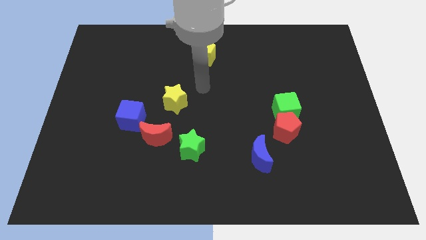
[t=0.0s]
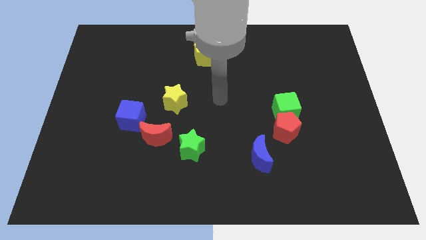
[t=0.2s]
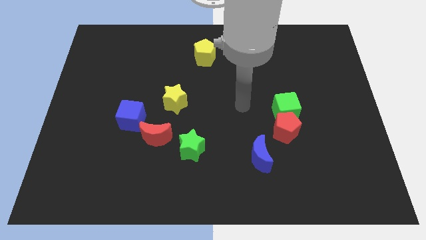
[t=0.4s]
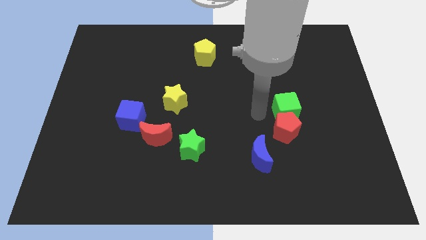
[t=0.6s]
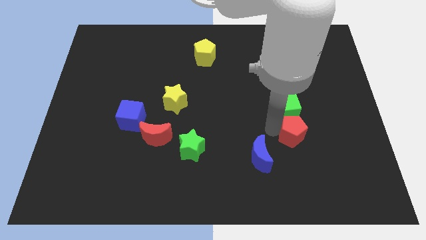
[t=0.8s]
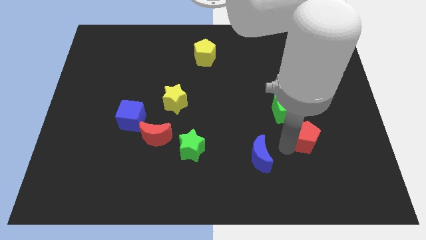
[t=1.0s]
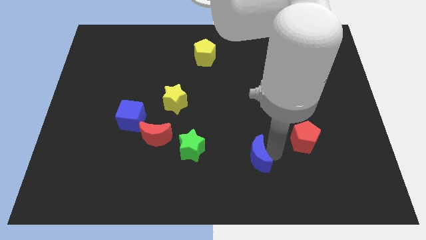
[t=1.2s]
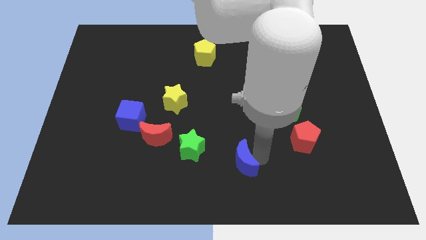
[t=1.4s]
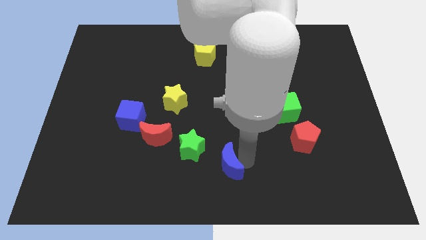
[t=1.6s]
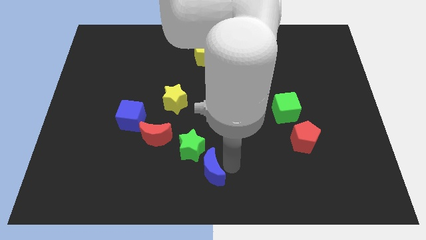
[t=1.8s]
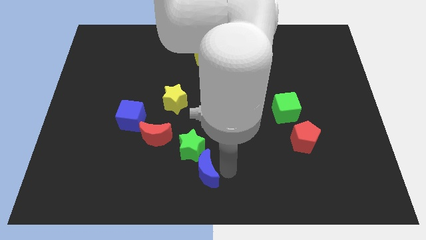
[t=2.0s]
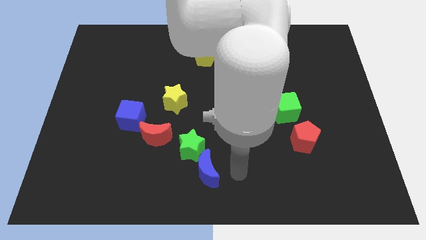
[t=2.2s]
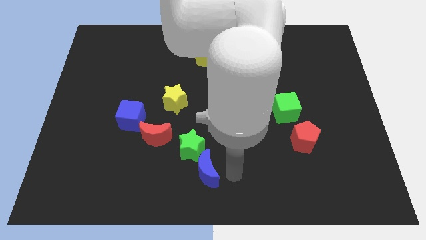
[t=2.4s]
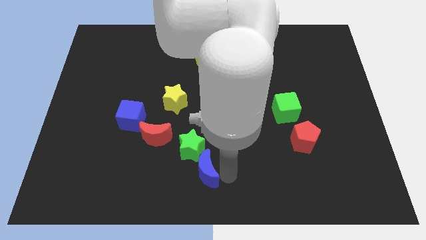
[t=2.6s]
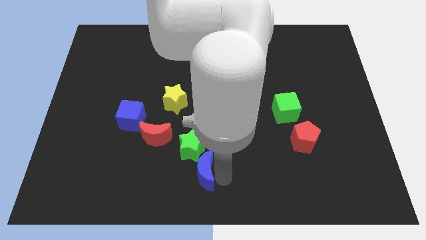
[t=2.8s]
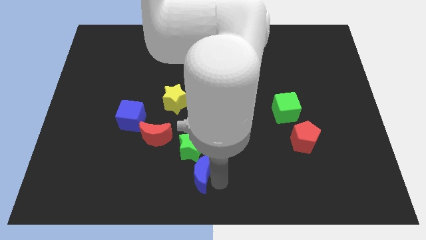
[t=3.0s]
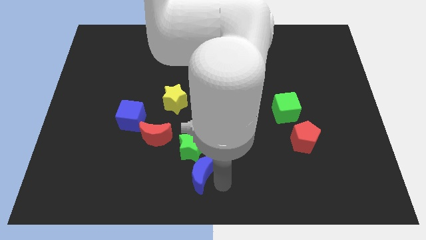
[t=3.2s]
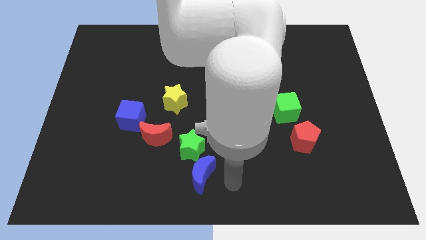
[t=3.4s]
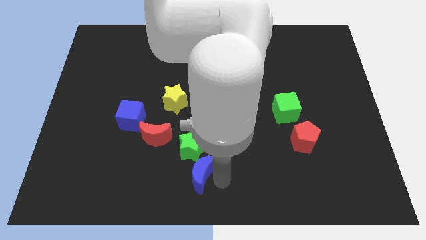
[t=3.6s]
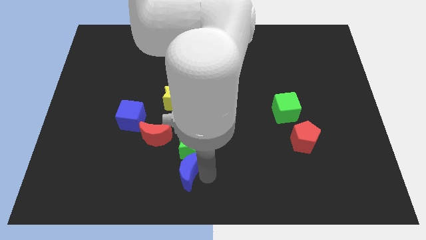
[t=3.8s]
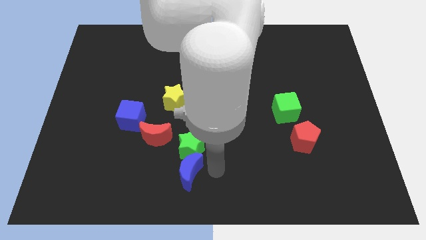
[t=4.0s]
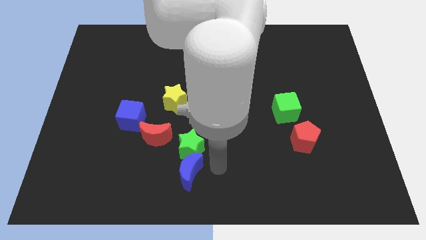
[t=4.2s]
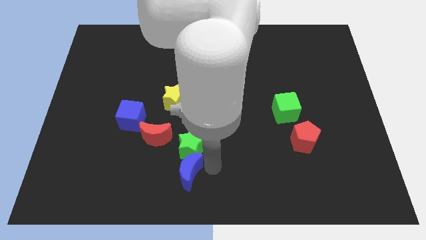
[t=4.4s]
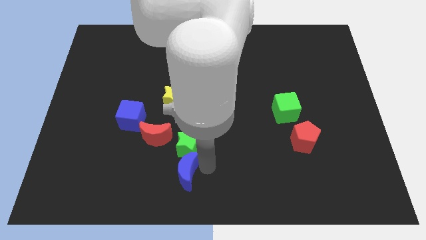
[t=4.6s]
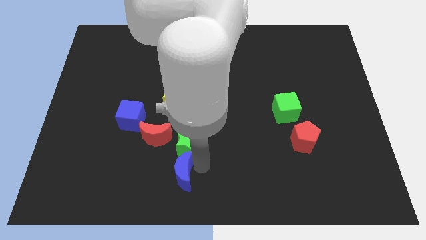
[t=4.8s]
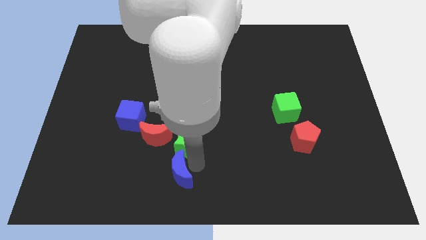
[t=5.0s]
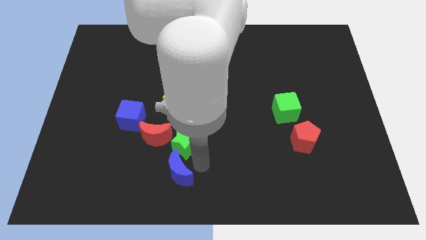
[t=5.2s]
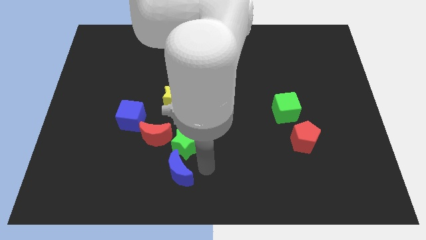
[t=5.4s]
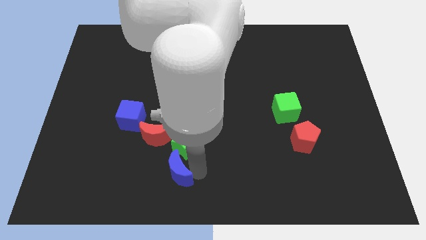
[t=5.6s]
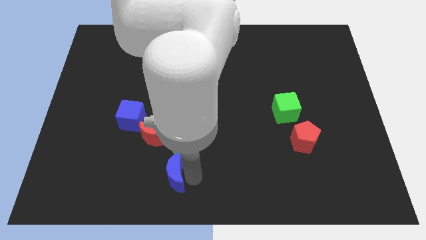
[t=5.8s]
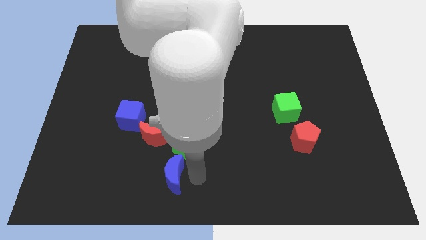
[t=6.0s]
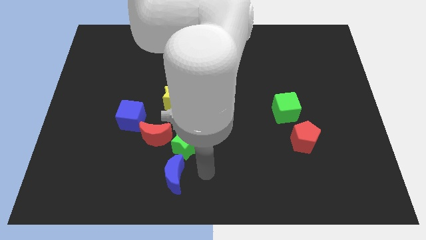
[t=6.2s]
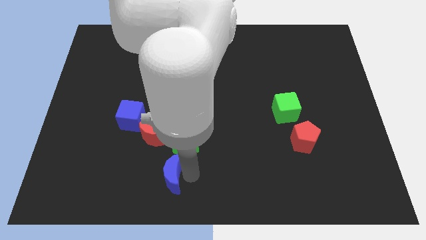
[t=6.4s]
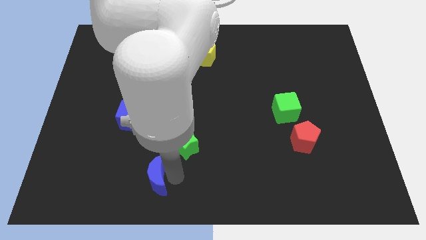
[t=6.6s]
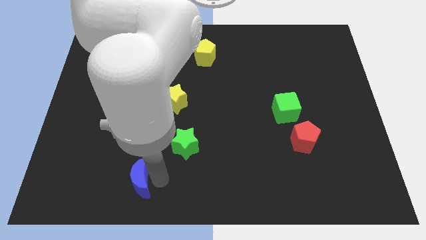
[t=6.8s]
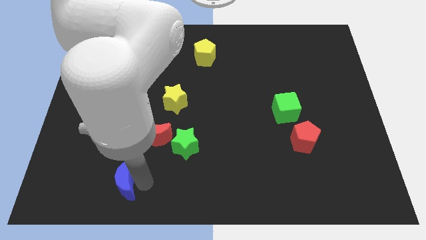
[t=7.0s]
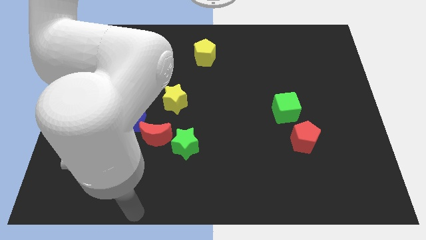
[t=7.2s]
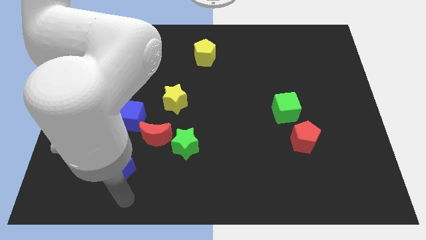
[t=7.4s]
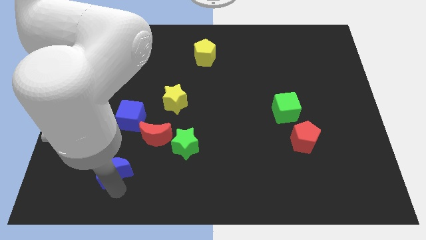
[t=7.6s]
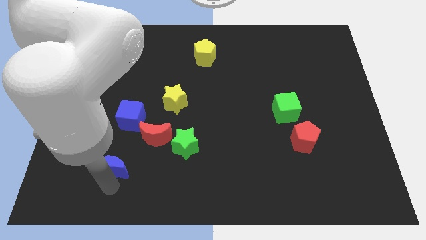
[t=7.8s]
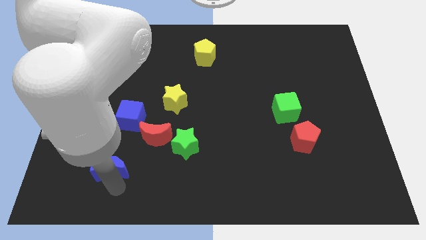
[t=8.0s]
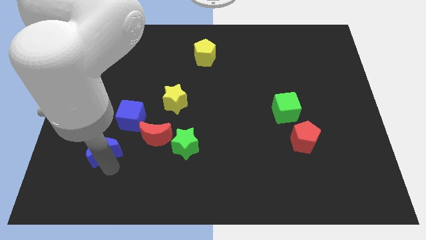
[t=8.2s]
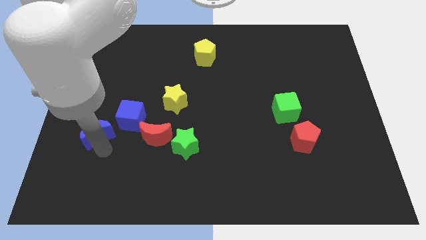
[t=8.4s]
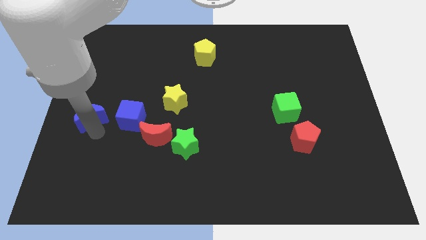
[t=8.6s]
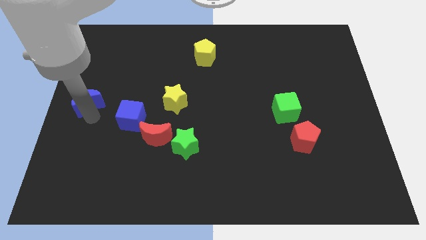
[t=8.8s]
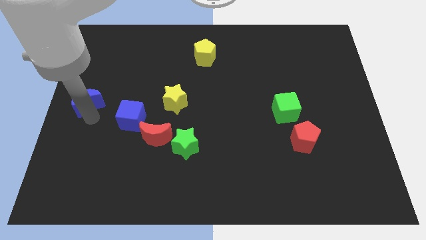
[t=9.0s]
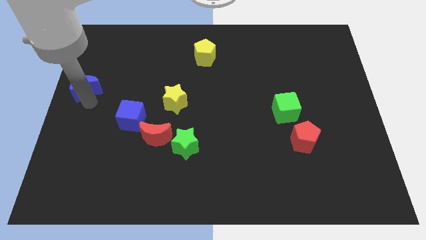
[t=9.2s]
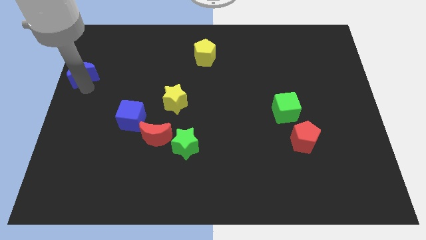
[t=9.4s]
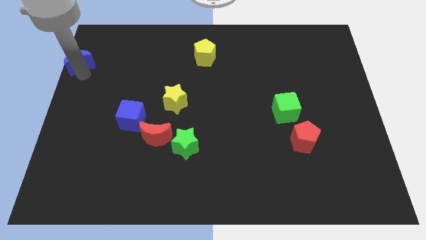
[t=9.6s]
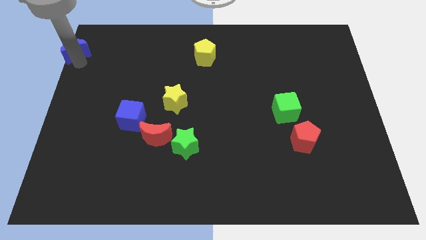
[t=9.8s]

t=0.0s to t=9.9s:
slide the blue moon to the top left of the board

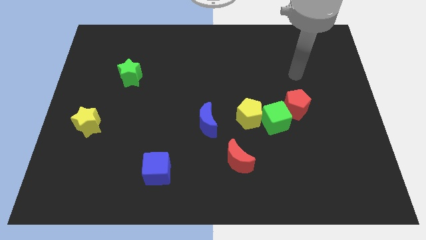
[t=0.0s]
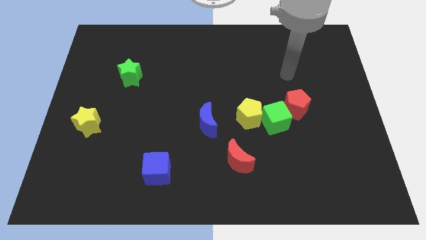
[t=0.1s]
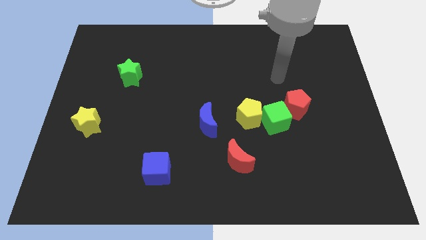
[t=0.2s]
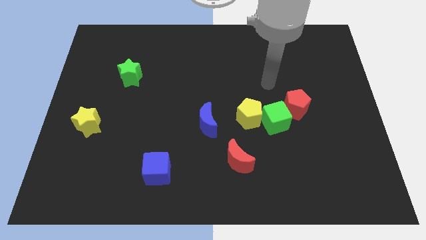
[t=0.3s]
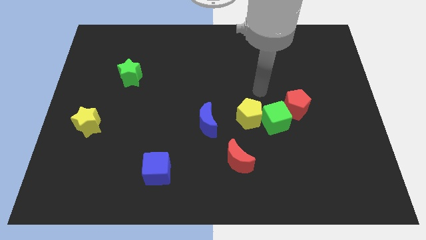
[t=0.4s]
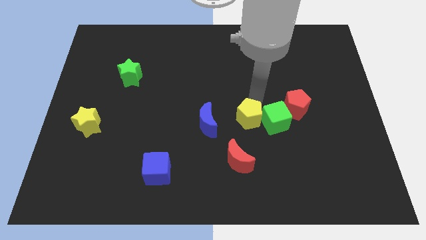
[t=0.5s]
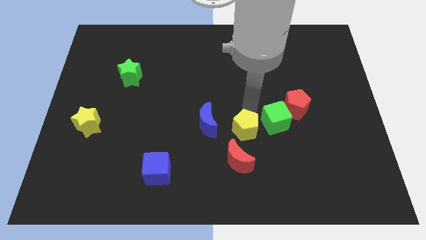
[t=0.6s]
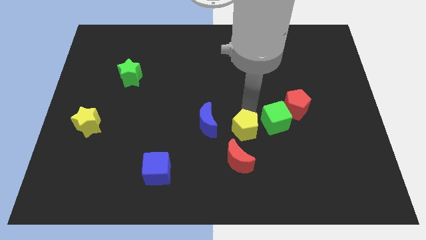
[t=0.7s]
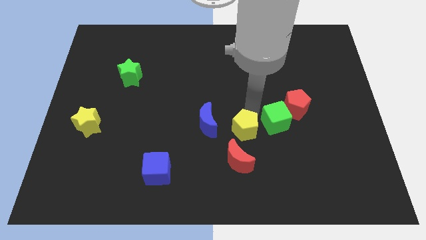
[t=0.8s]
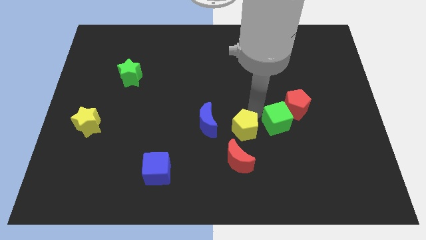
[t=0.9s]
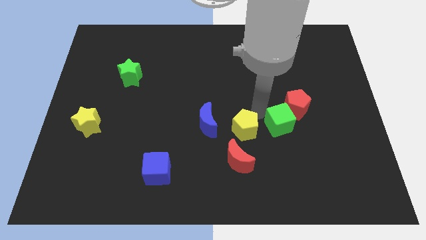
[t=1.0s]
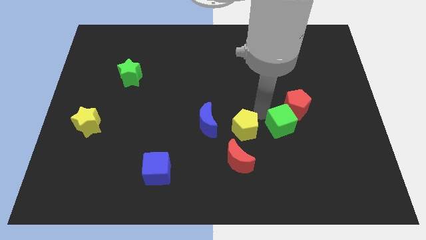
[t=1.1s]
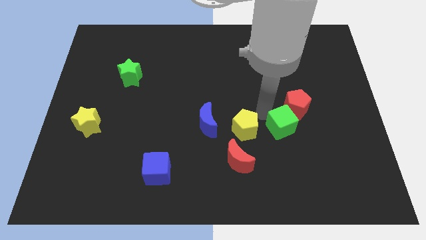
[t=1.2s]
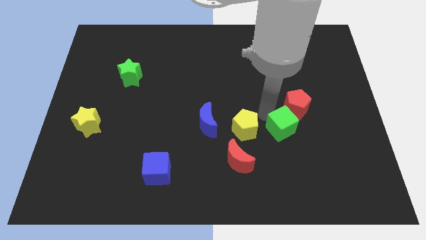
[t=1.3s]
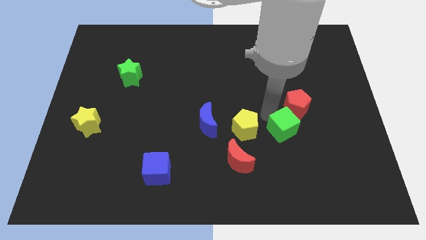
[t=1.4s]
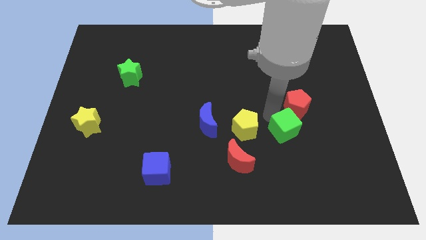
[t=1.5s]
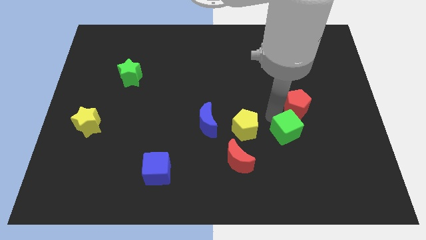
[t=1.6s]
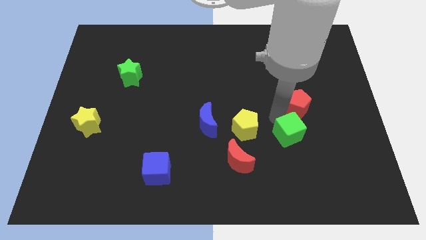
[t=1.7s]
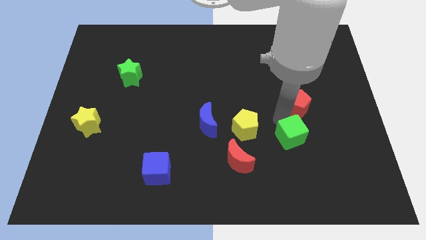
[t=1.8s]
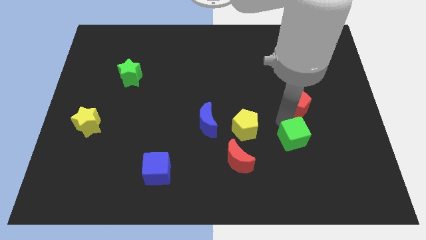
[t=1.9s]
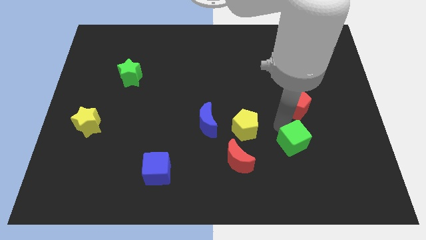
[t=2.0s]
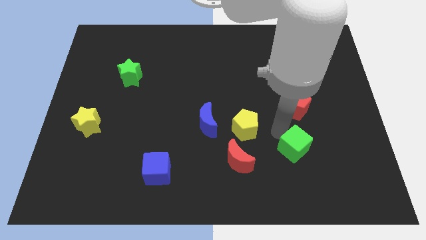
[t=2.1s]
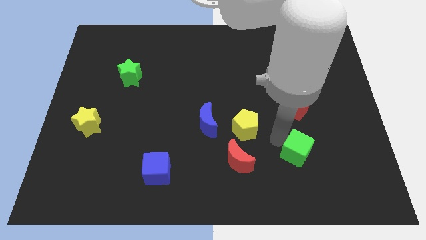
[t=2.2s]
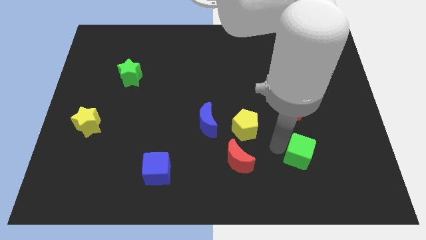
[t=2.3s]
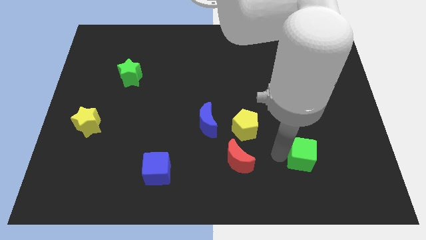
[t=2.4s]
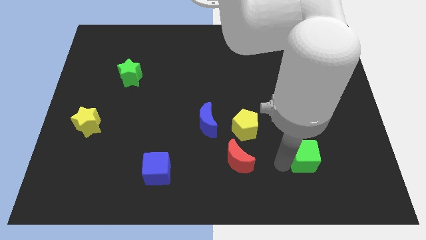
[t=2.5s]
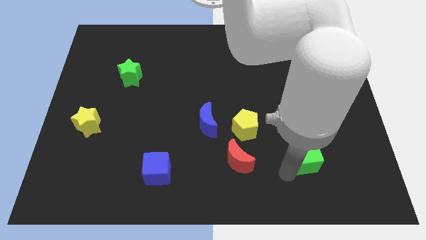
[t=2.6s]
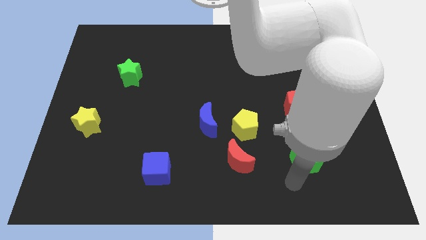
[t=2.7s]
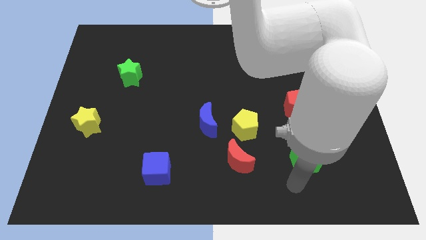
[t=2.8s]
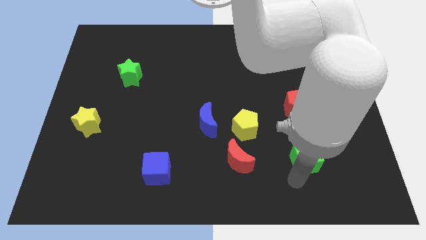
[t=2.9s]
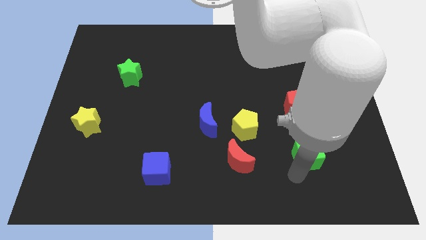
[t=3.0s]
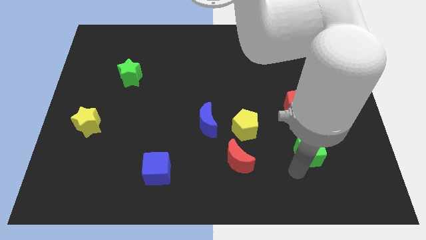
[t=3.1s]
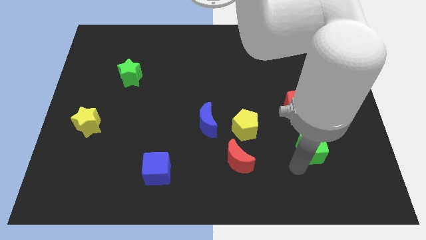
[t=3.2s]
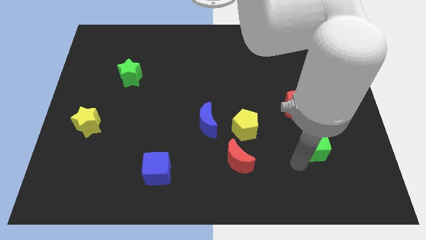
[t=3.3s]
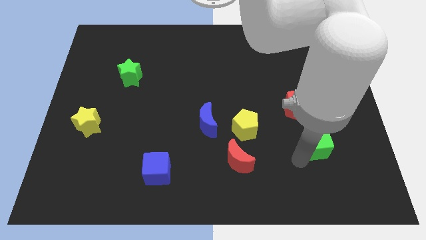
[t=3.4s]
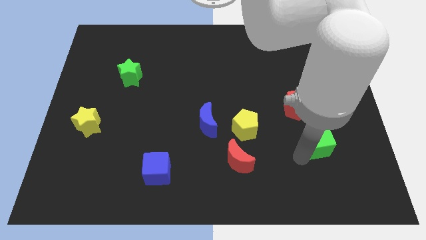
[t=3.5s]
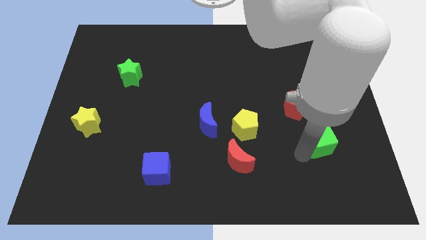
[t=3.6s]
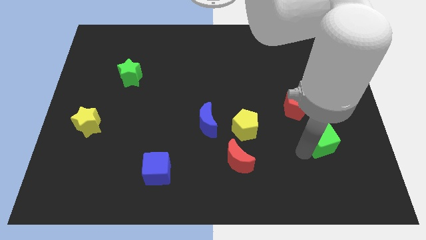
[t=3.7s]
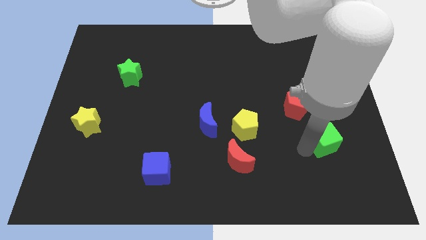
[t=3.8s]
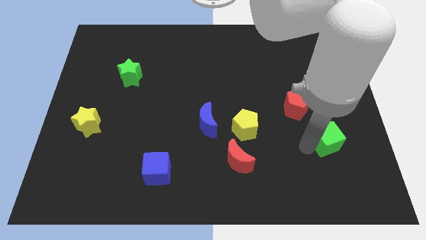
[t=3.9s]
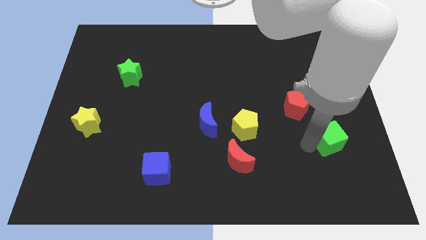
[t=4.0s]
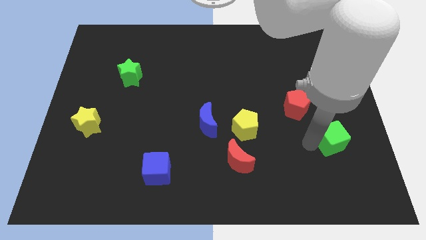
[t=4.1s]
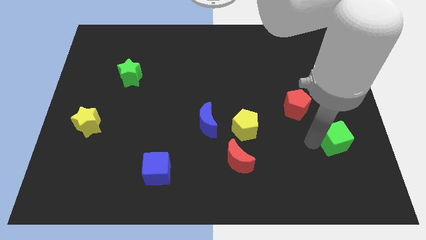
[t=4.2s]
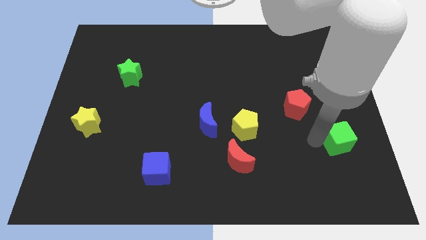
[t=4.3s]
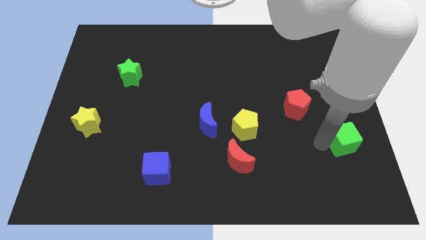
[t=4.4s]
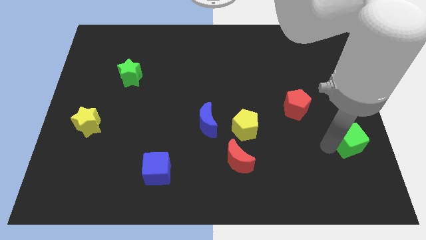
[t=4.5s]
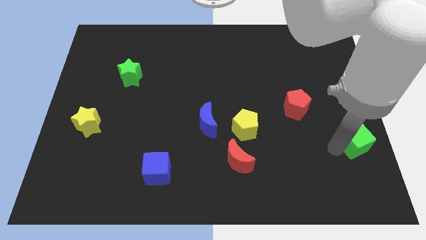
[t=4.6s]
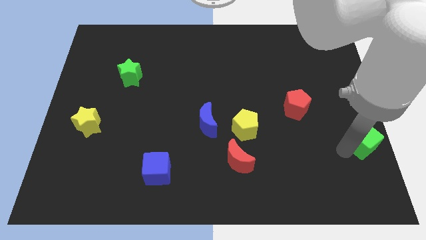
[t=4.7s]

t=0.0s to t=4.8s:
push the green cube to the right side
